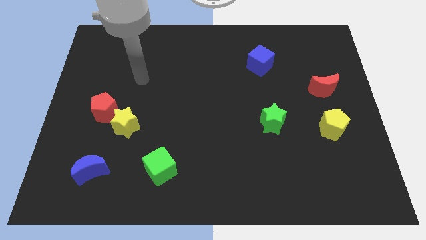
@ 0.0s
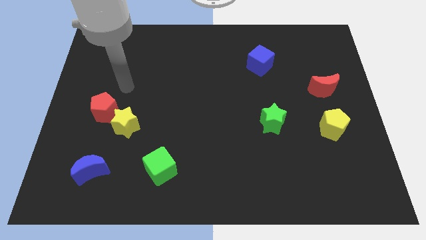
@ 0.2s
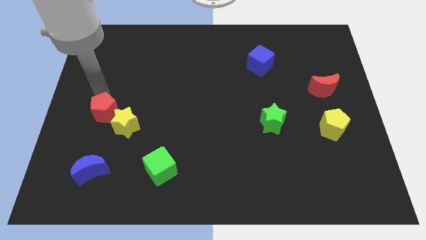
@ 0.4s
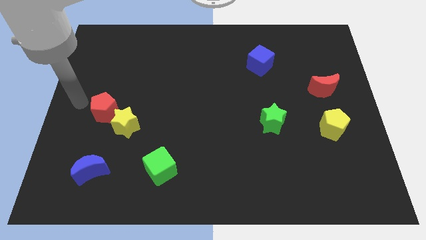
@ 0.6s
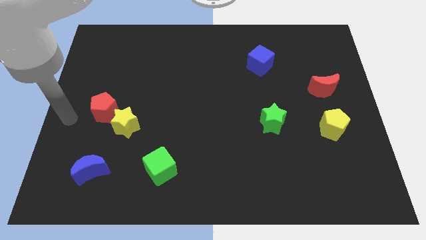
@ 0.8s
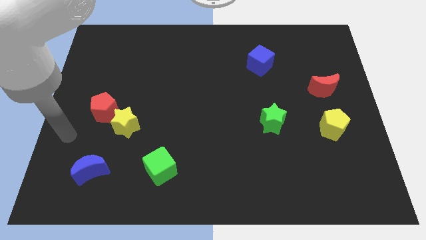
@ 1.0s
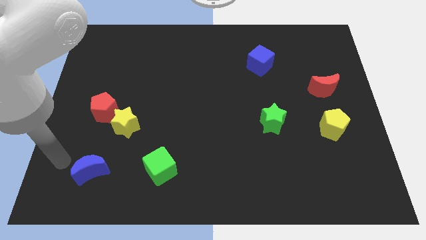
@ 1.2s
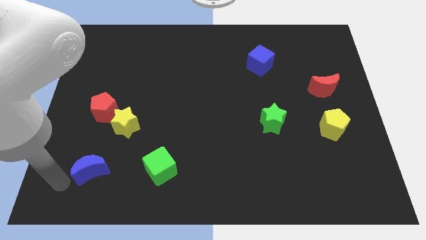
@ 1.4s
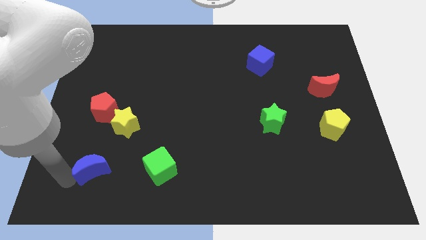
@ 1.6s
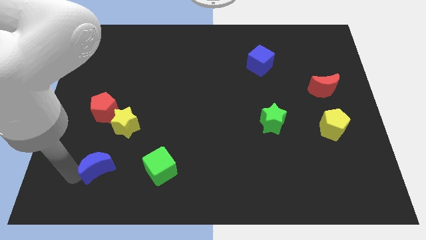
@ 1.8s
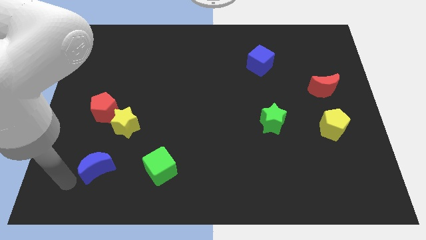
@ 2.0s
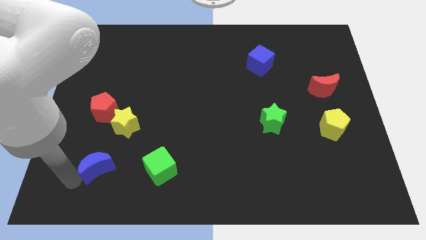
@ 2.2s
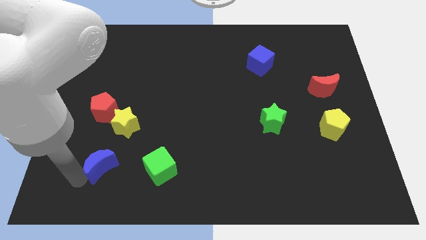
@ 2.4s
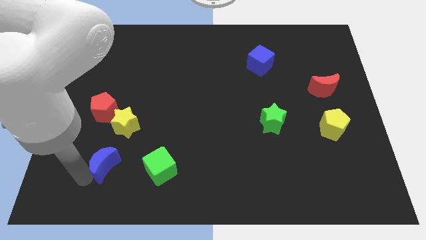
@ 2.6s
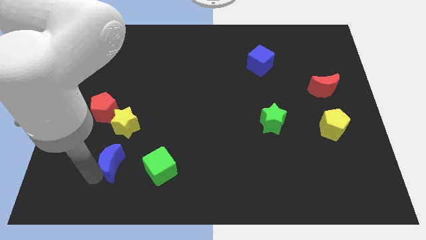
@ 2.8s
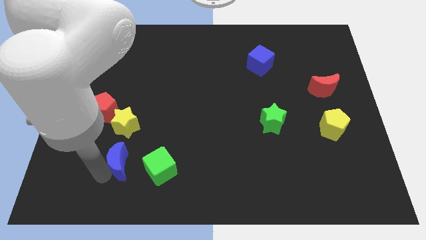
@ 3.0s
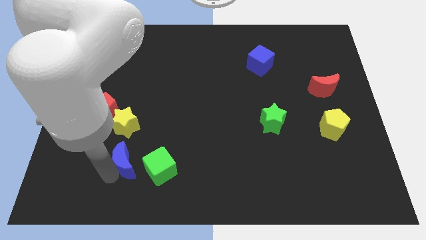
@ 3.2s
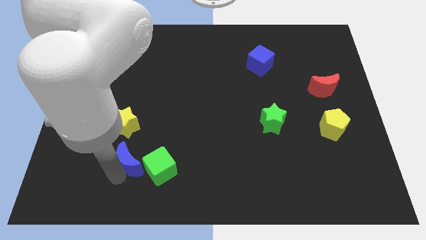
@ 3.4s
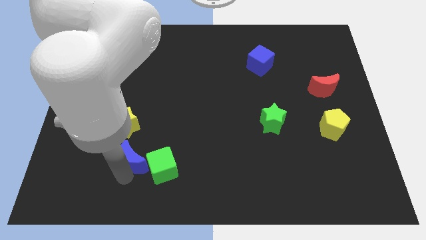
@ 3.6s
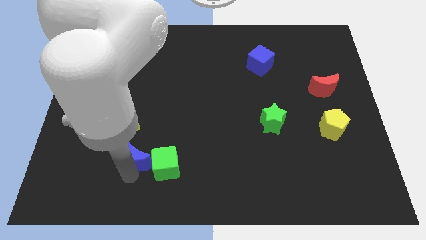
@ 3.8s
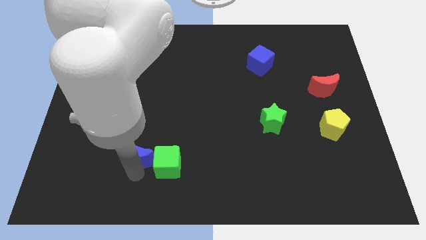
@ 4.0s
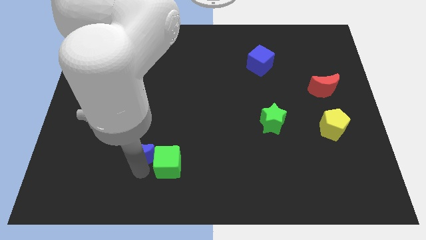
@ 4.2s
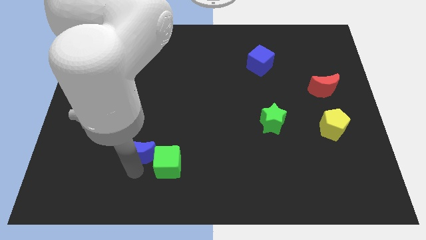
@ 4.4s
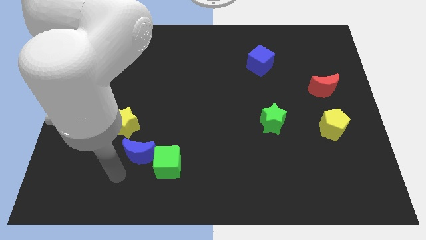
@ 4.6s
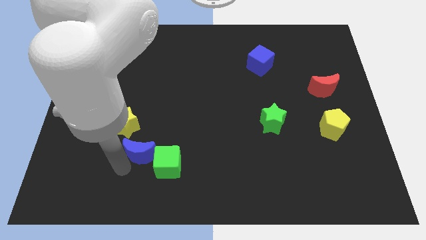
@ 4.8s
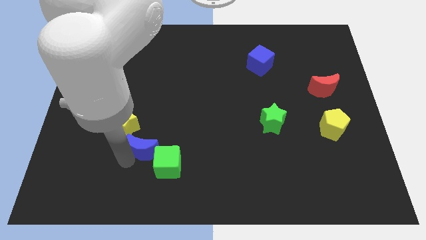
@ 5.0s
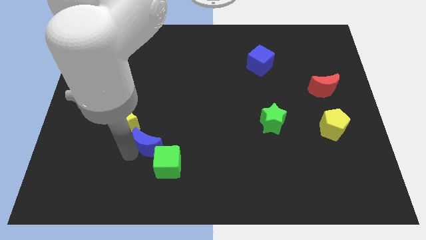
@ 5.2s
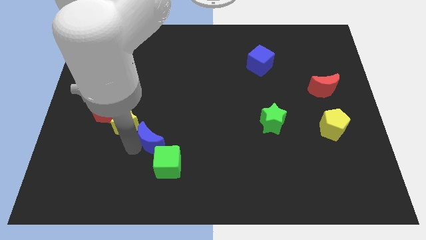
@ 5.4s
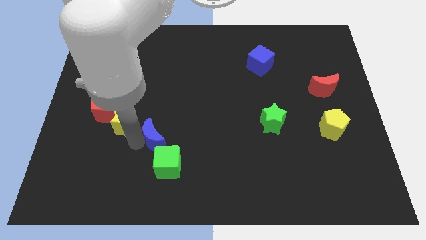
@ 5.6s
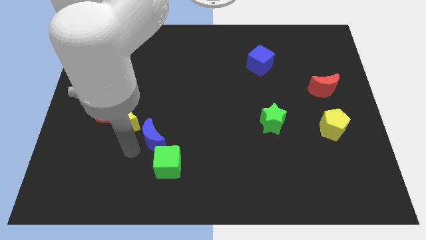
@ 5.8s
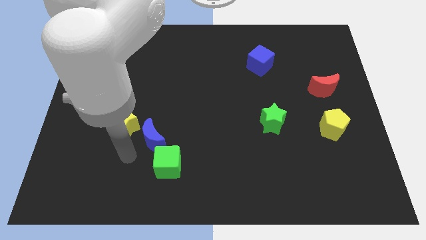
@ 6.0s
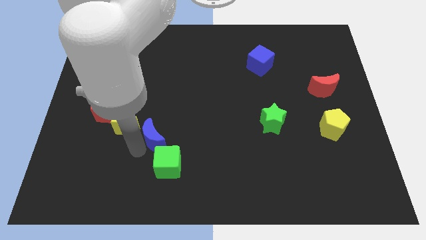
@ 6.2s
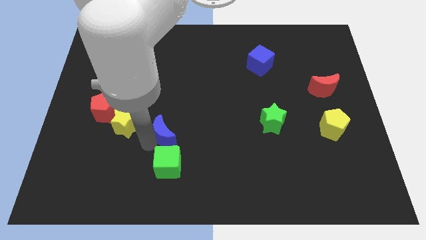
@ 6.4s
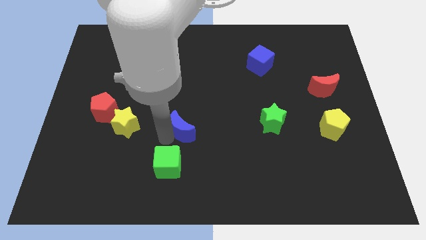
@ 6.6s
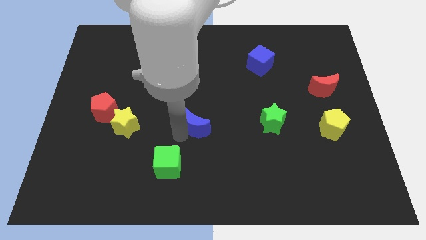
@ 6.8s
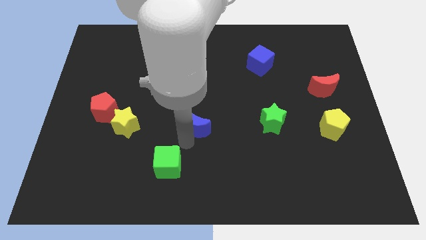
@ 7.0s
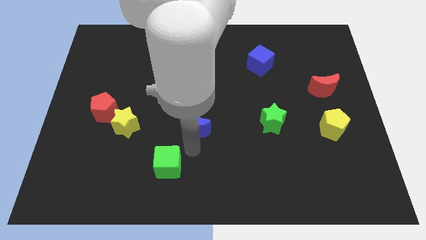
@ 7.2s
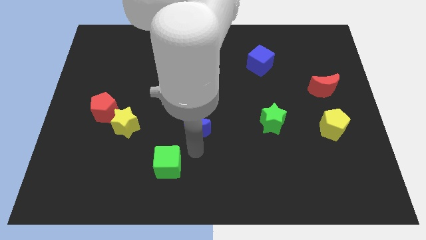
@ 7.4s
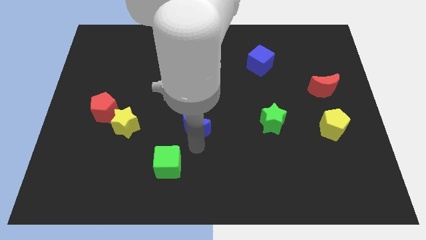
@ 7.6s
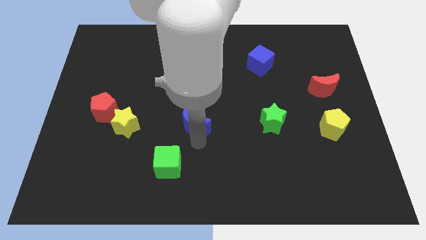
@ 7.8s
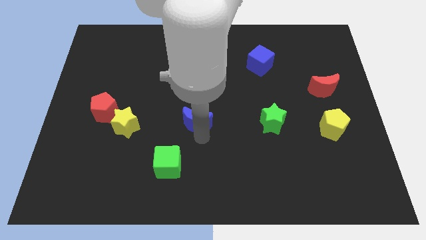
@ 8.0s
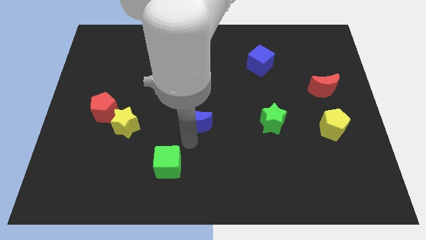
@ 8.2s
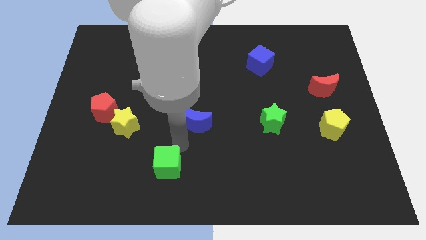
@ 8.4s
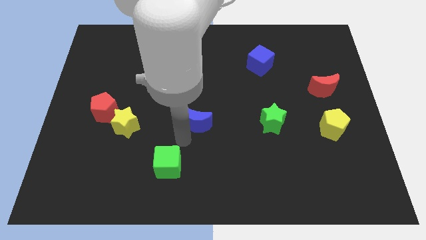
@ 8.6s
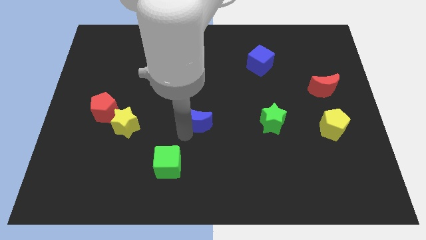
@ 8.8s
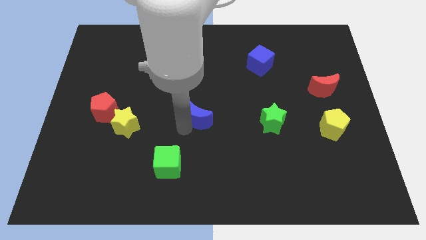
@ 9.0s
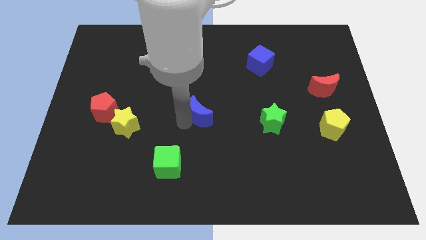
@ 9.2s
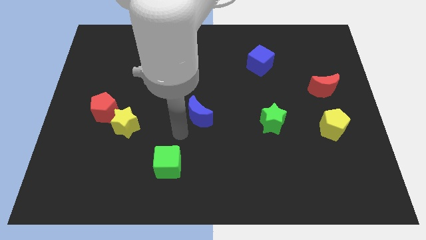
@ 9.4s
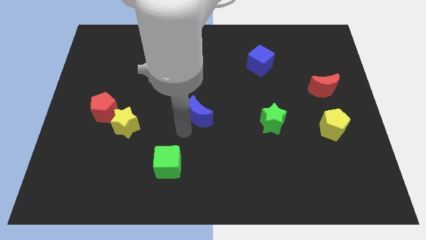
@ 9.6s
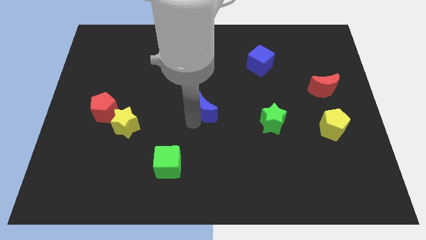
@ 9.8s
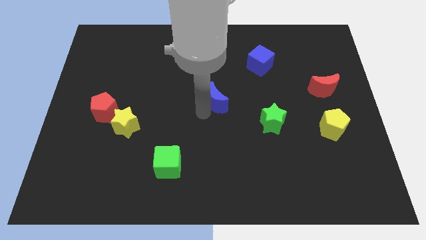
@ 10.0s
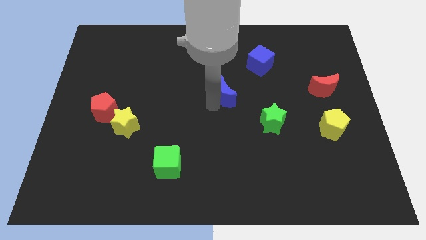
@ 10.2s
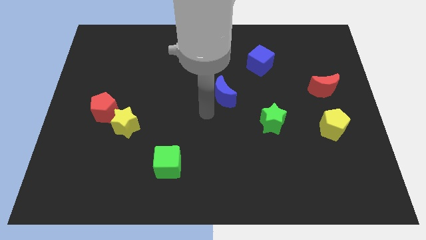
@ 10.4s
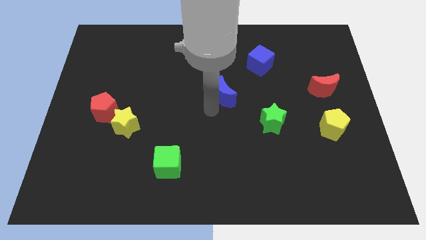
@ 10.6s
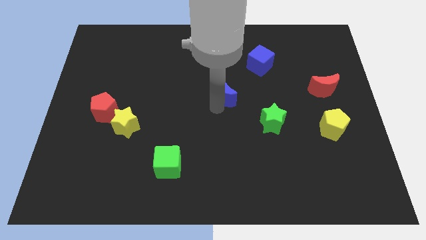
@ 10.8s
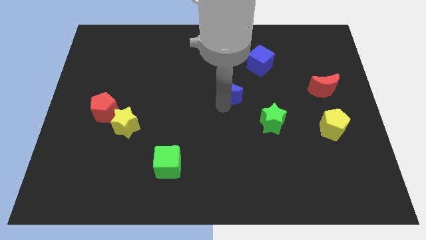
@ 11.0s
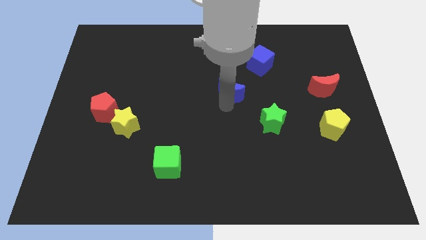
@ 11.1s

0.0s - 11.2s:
move the blue moon to the bottom left side of the blue cube

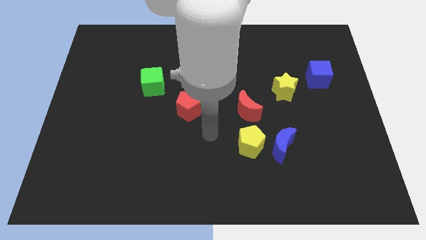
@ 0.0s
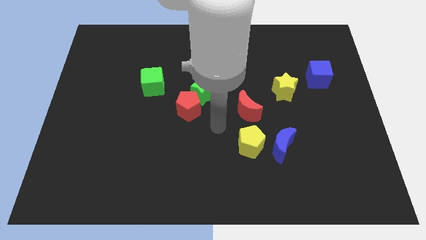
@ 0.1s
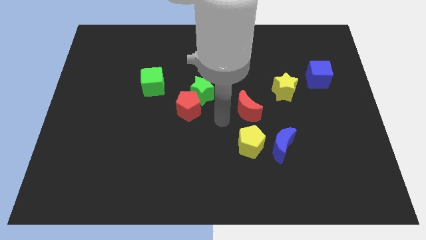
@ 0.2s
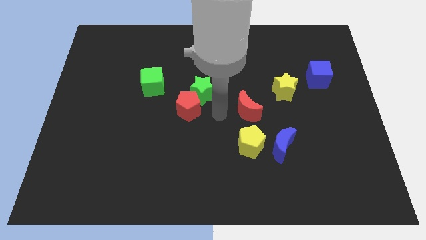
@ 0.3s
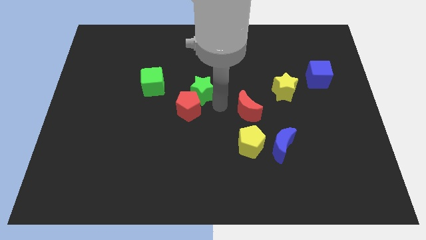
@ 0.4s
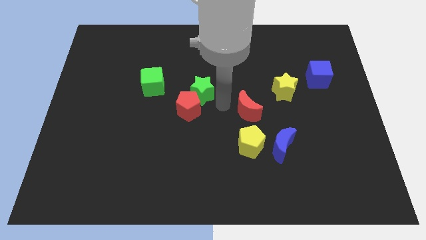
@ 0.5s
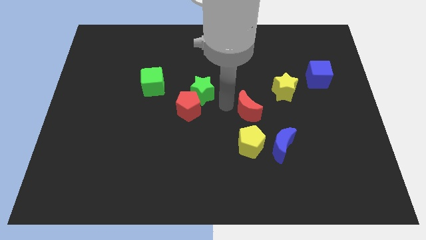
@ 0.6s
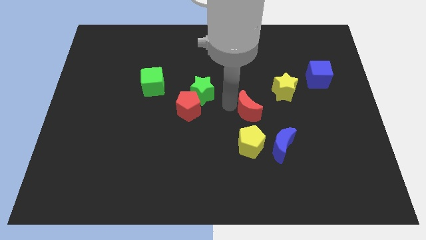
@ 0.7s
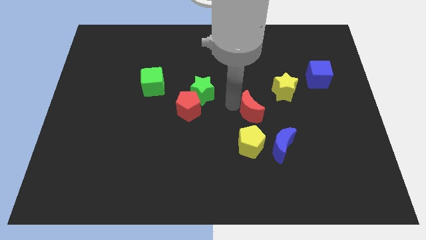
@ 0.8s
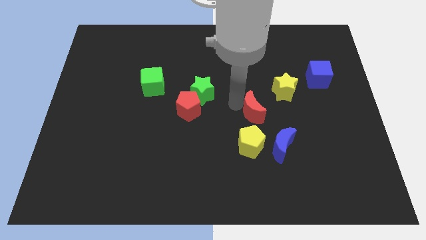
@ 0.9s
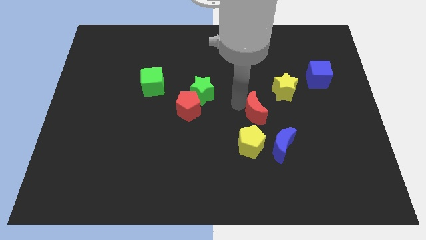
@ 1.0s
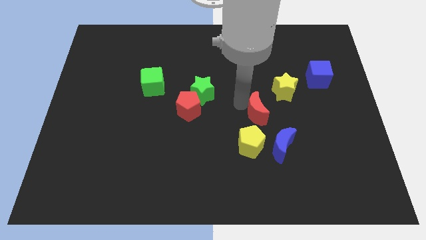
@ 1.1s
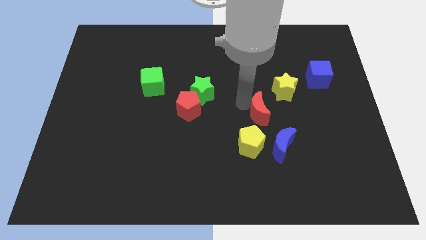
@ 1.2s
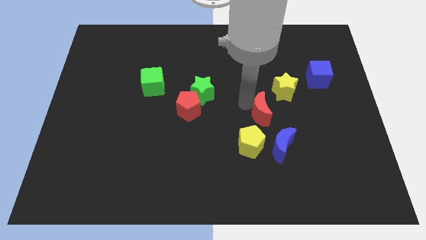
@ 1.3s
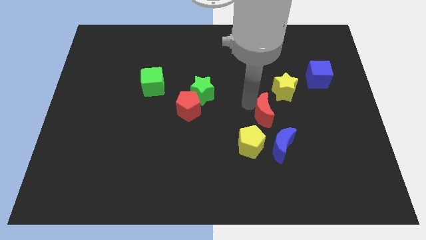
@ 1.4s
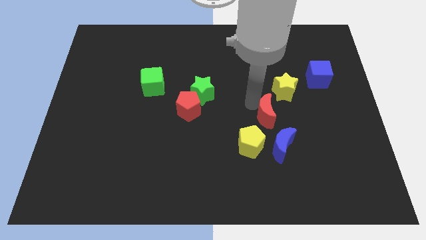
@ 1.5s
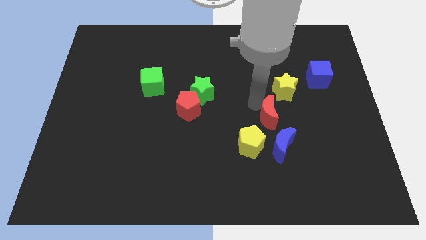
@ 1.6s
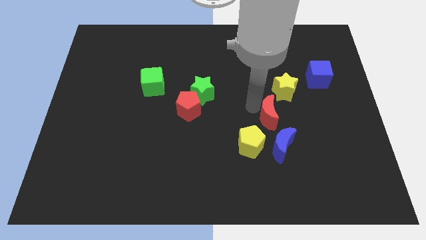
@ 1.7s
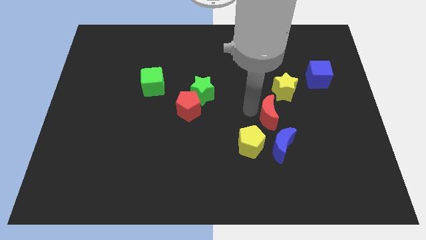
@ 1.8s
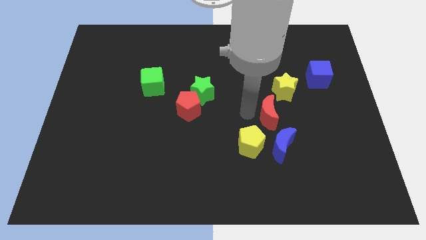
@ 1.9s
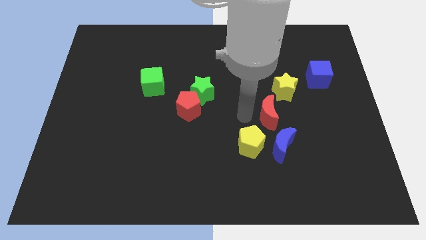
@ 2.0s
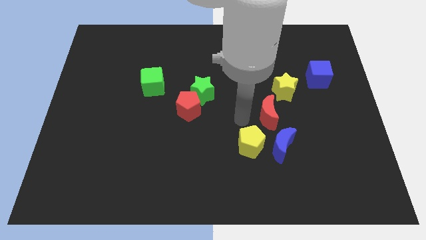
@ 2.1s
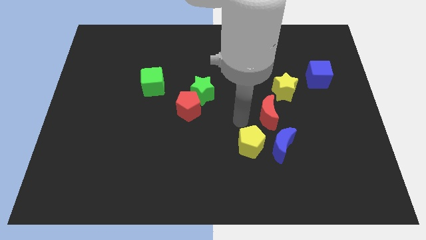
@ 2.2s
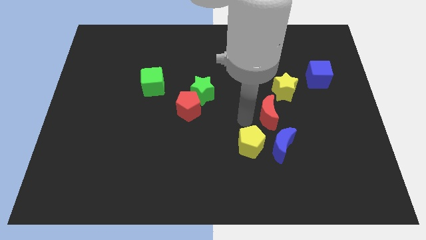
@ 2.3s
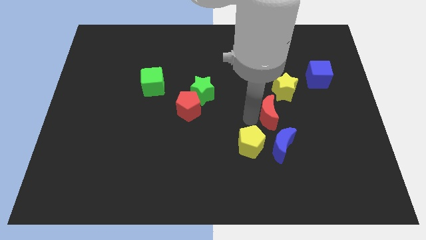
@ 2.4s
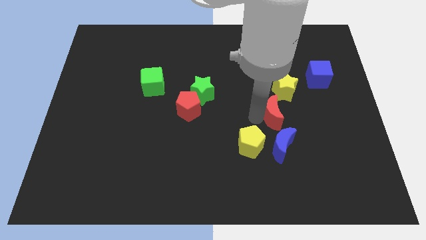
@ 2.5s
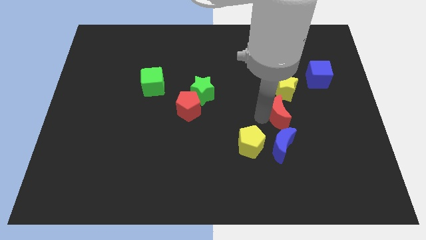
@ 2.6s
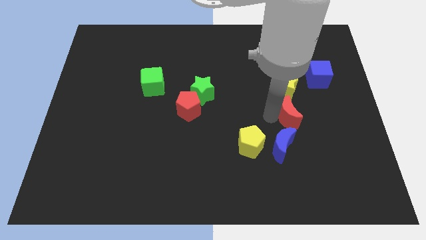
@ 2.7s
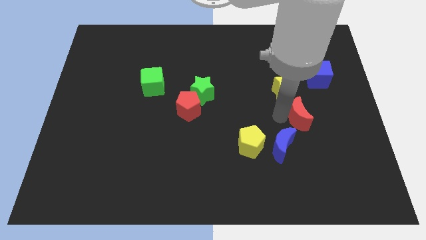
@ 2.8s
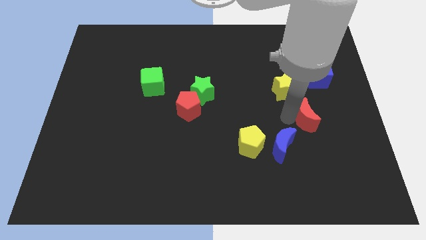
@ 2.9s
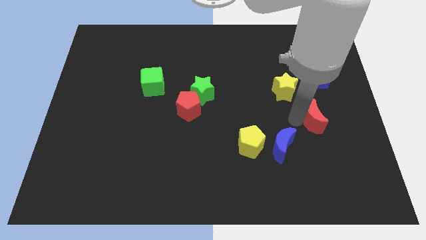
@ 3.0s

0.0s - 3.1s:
push the red moon below the blue cube
